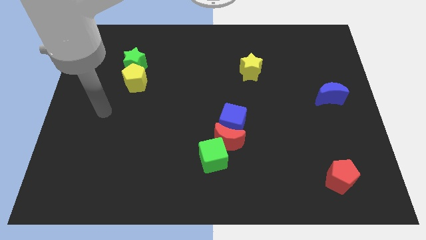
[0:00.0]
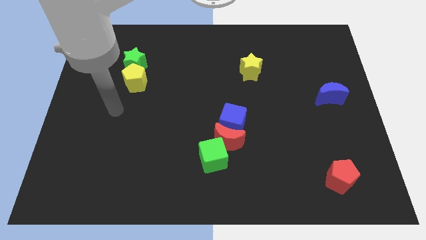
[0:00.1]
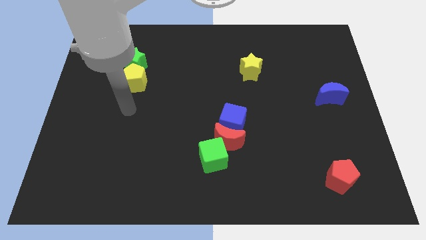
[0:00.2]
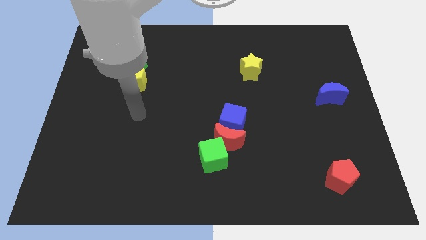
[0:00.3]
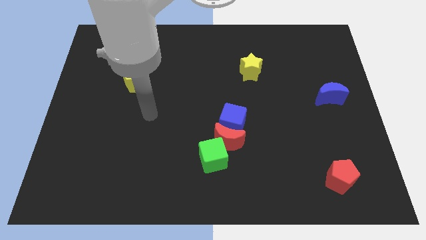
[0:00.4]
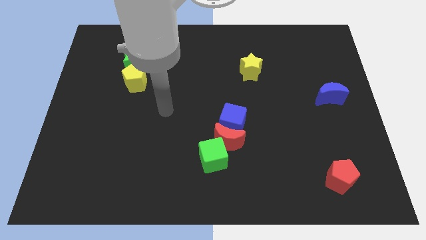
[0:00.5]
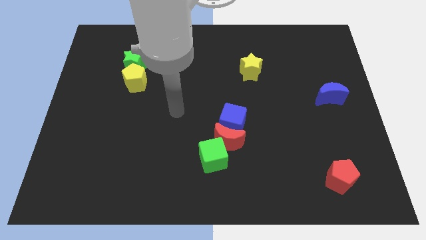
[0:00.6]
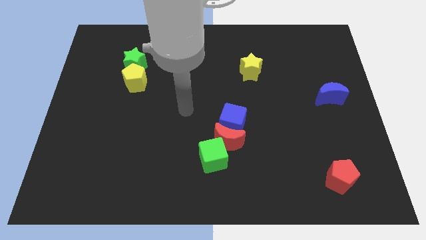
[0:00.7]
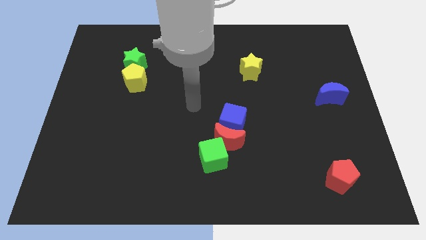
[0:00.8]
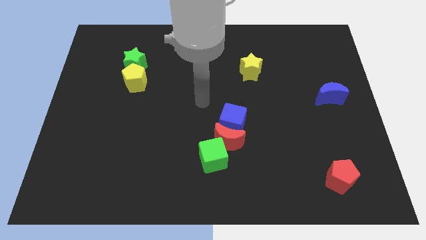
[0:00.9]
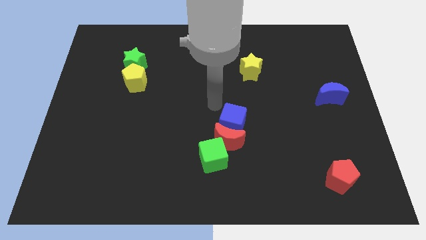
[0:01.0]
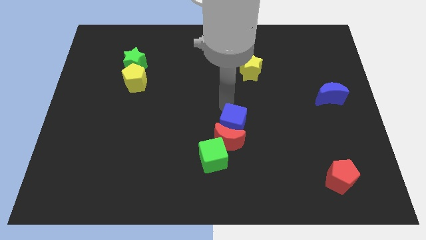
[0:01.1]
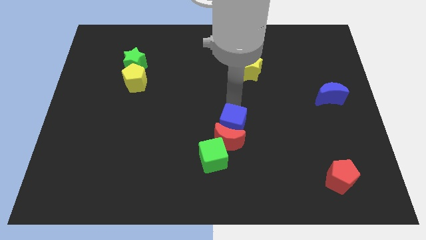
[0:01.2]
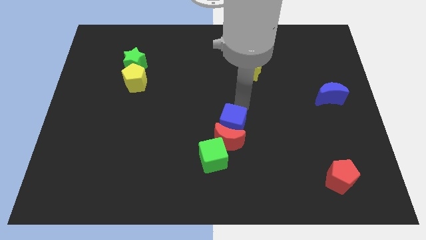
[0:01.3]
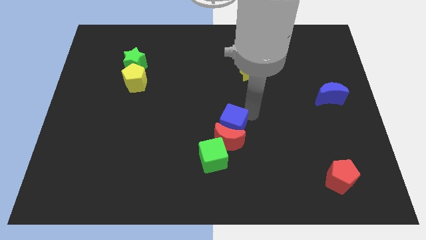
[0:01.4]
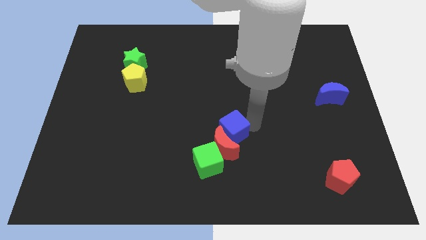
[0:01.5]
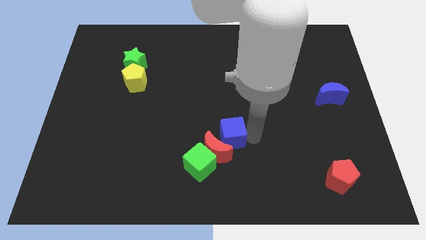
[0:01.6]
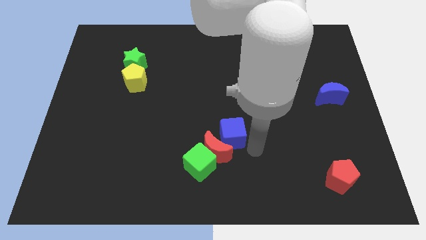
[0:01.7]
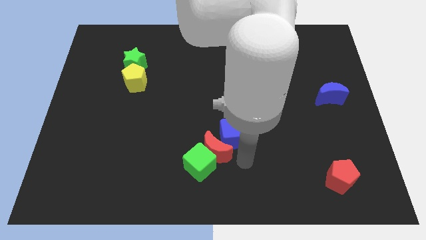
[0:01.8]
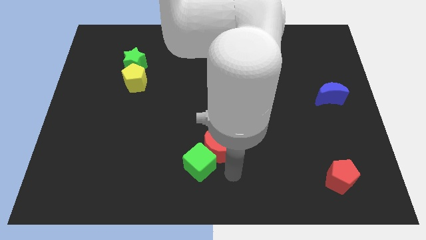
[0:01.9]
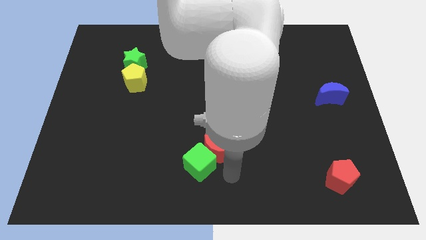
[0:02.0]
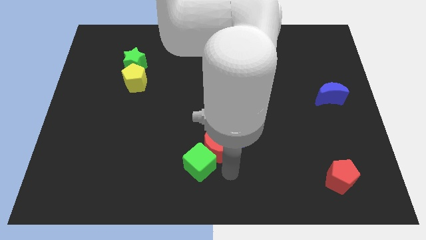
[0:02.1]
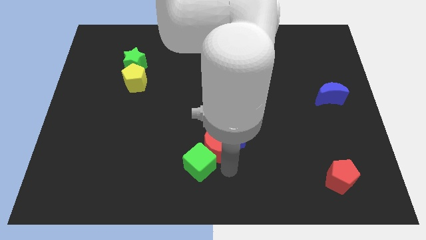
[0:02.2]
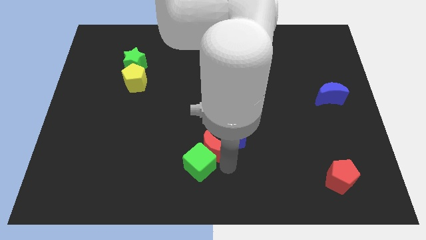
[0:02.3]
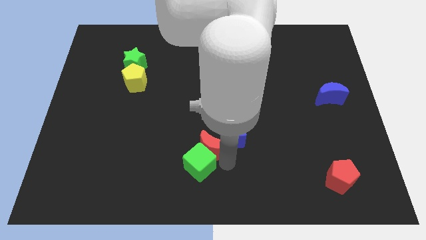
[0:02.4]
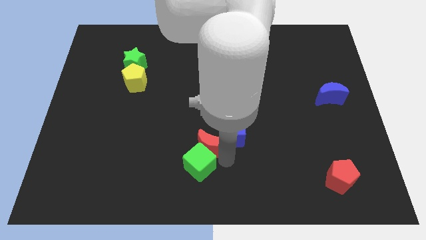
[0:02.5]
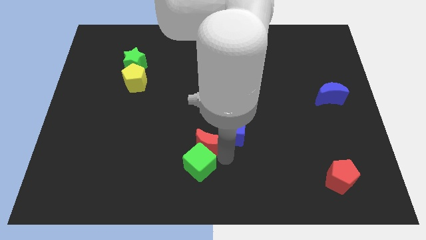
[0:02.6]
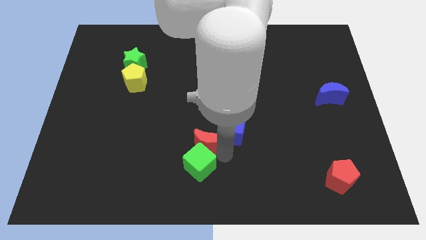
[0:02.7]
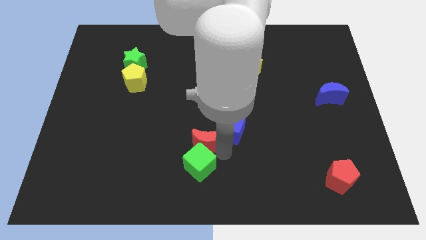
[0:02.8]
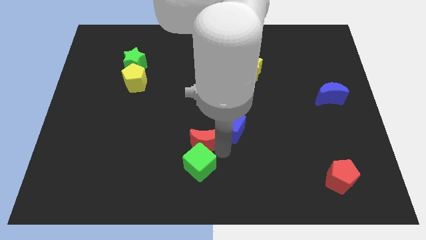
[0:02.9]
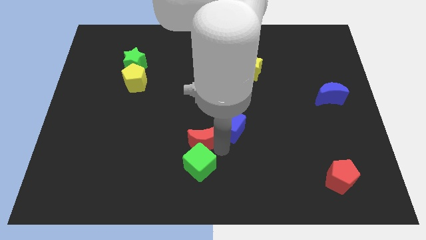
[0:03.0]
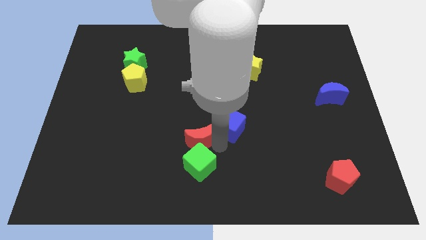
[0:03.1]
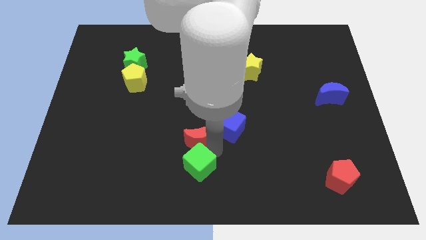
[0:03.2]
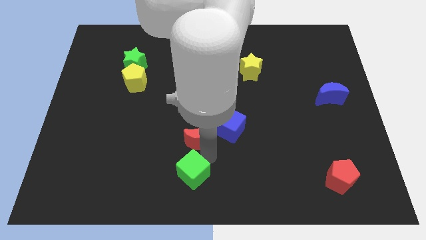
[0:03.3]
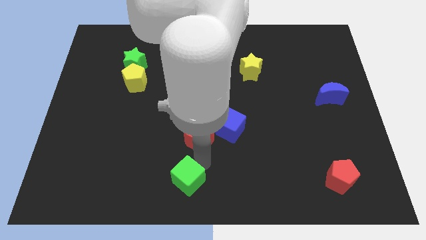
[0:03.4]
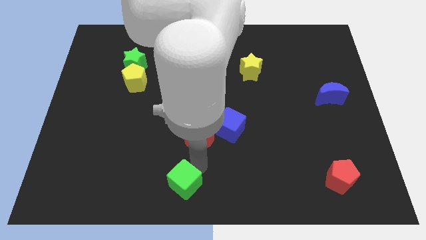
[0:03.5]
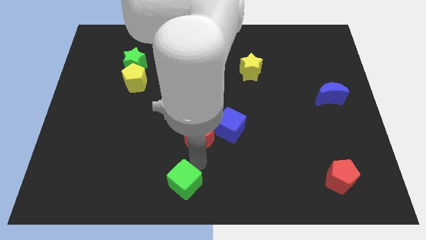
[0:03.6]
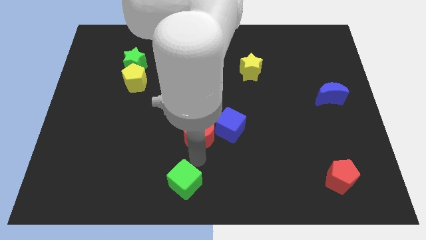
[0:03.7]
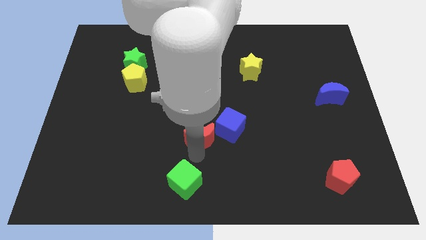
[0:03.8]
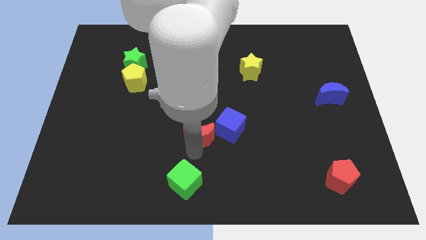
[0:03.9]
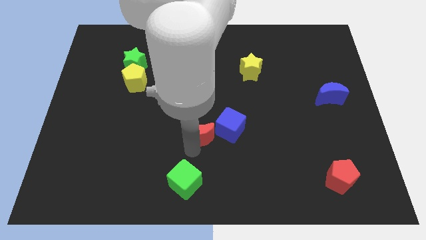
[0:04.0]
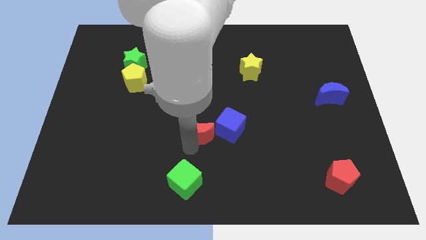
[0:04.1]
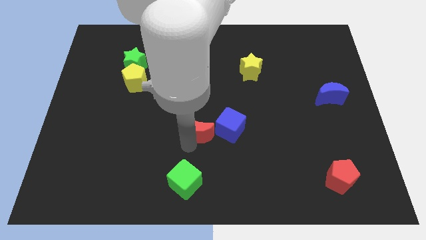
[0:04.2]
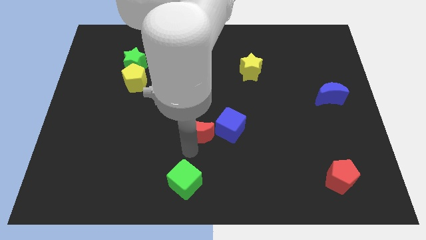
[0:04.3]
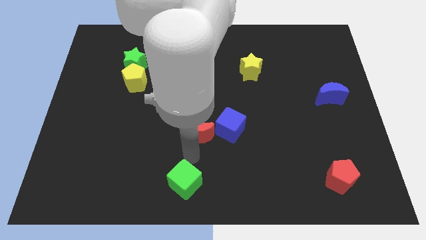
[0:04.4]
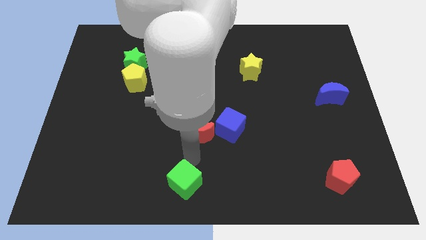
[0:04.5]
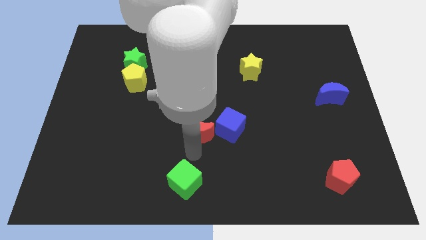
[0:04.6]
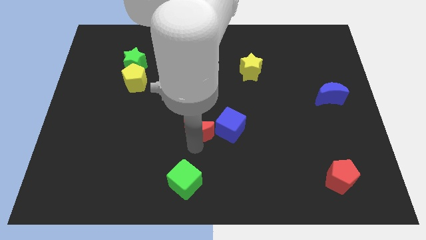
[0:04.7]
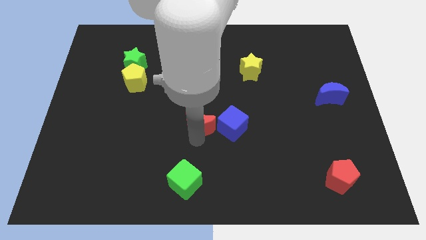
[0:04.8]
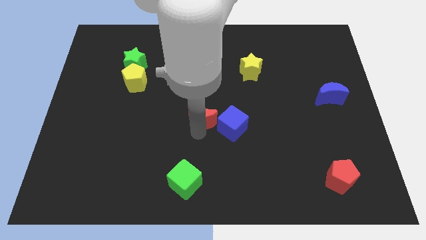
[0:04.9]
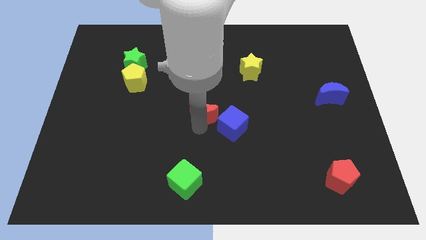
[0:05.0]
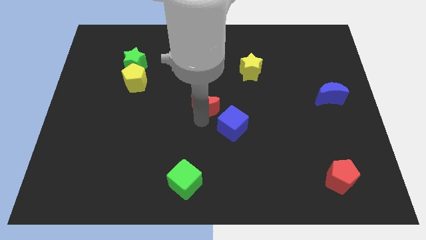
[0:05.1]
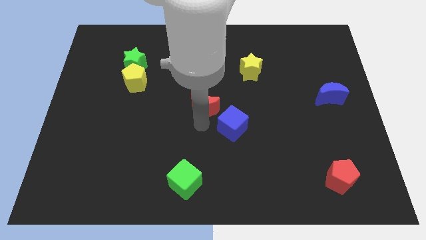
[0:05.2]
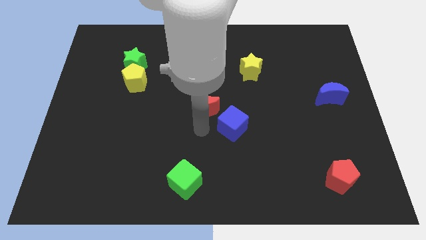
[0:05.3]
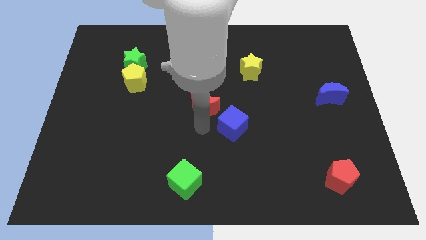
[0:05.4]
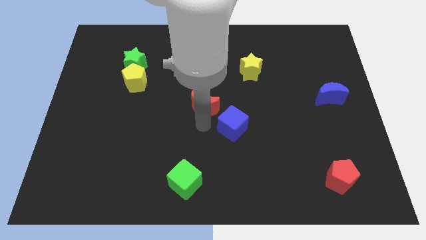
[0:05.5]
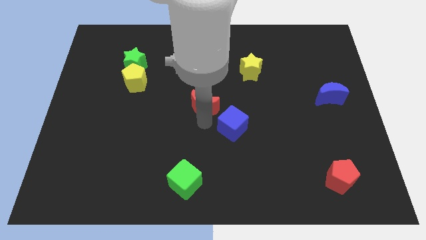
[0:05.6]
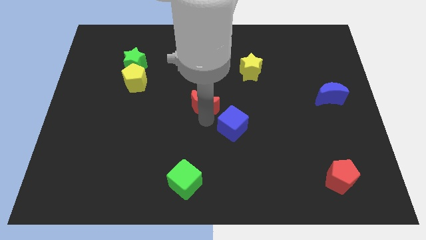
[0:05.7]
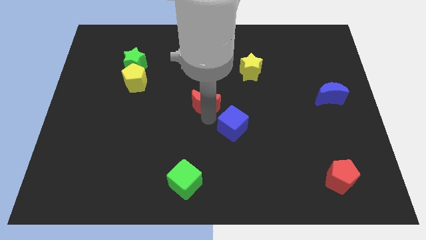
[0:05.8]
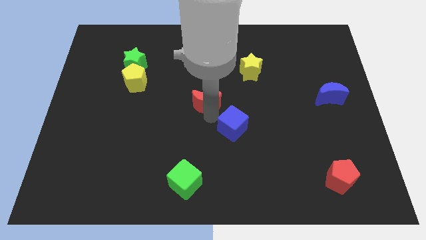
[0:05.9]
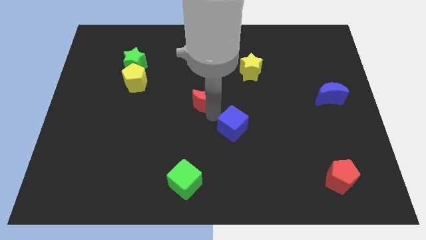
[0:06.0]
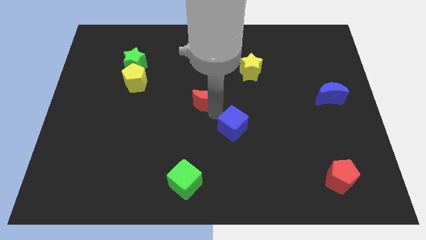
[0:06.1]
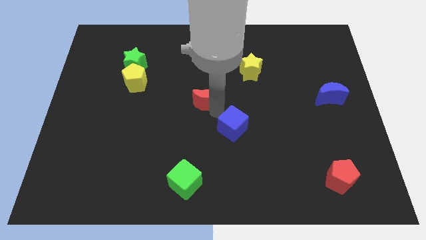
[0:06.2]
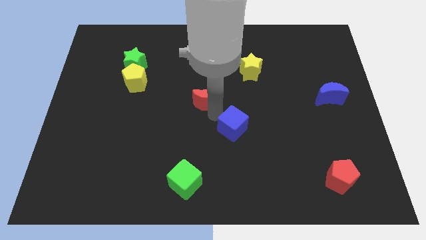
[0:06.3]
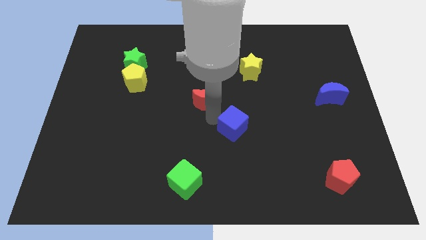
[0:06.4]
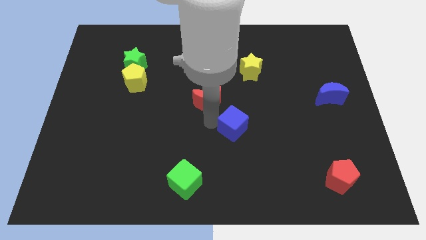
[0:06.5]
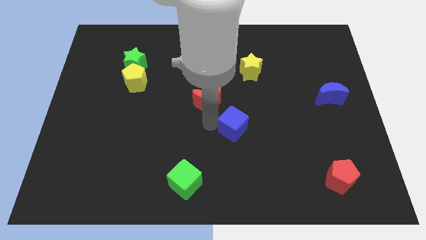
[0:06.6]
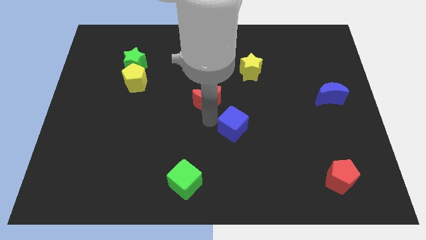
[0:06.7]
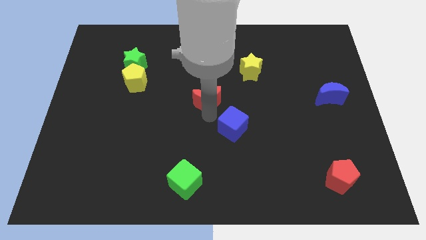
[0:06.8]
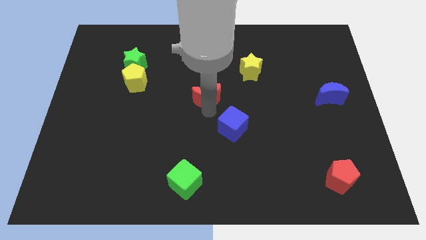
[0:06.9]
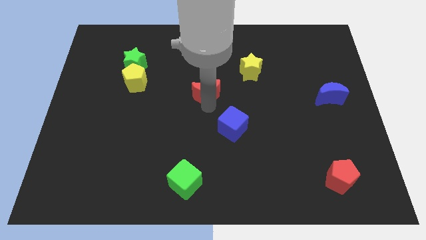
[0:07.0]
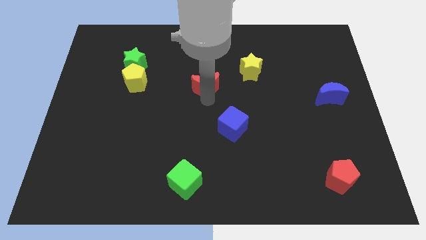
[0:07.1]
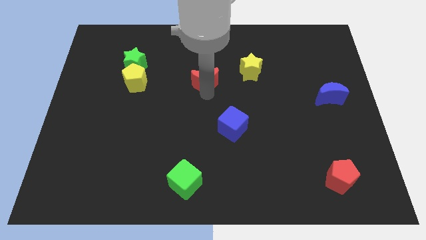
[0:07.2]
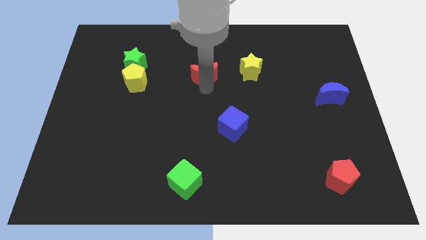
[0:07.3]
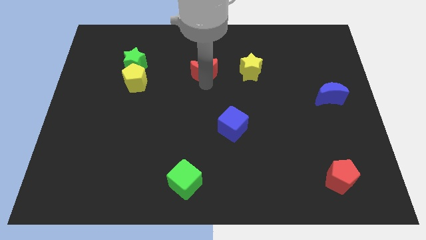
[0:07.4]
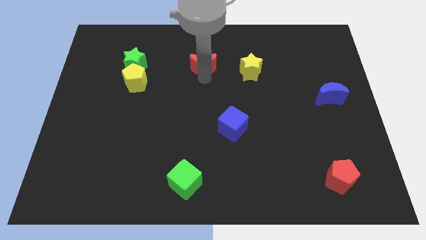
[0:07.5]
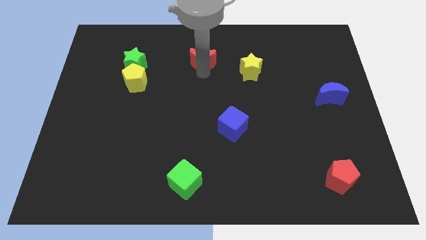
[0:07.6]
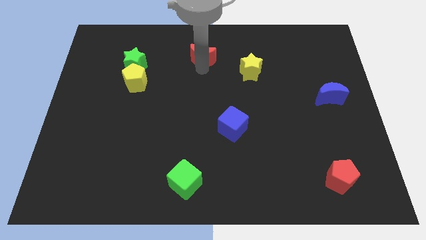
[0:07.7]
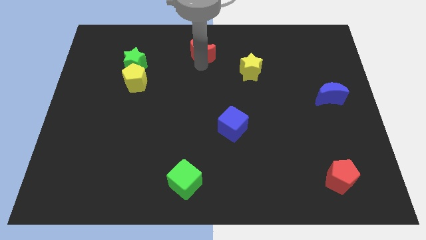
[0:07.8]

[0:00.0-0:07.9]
put the red moon to the towards your base
